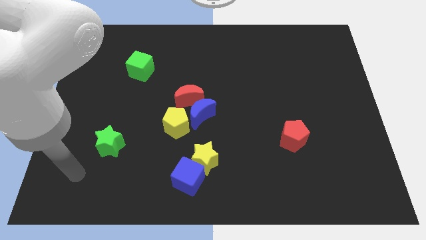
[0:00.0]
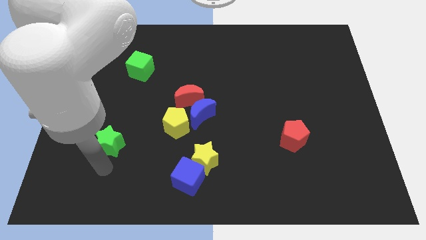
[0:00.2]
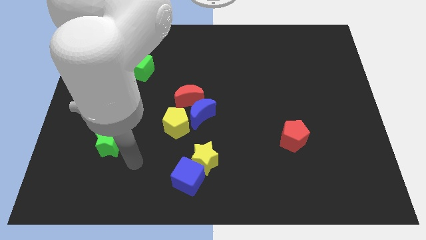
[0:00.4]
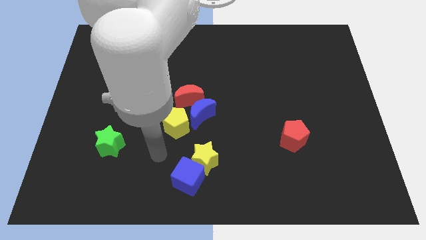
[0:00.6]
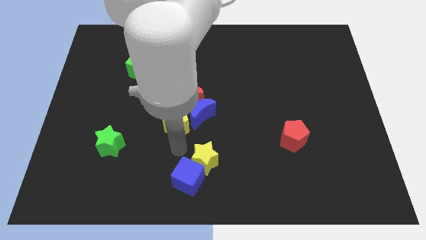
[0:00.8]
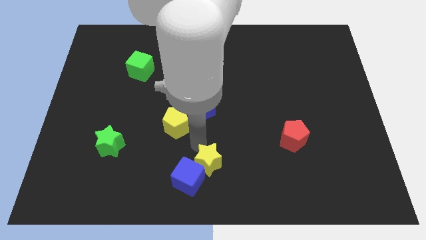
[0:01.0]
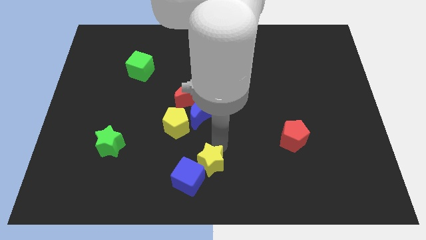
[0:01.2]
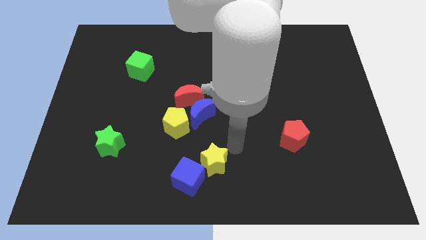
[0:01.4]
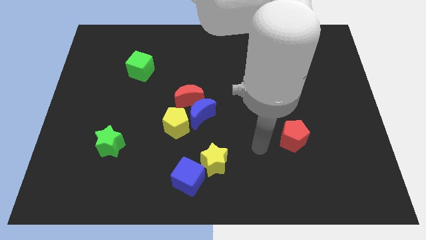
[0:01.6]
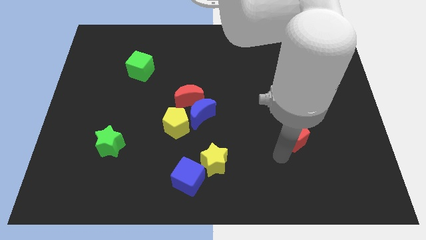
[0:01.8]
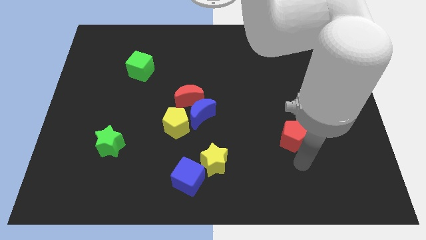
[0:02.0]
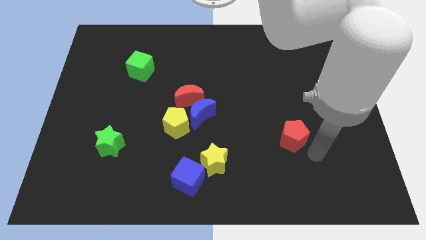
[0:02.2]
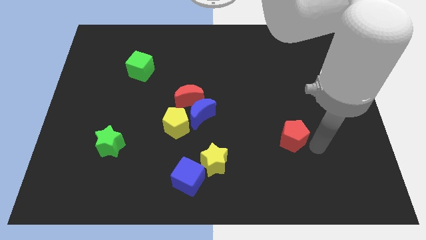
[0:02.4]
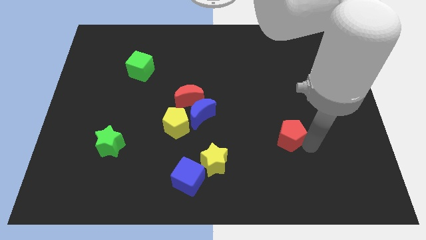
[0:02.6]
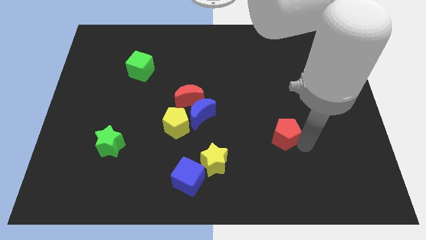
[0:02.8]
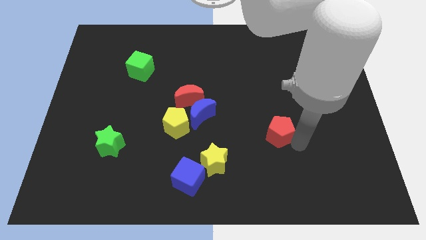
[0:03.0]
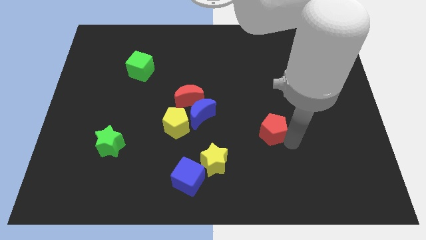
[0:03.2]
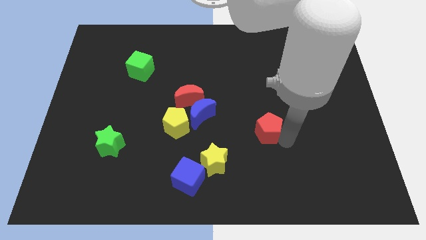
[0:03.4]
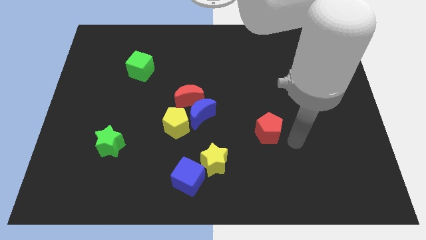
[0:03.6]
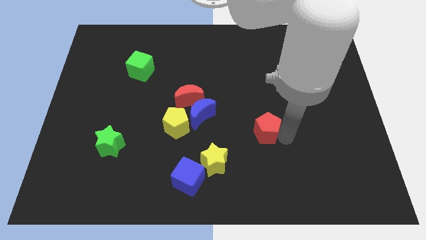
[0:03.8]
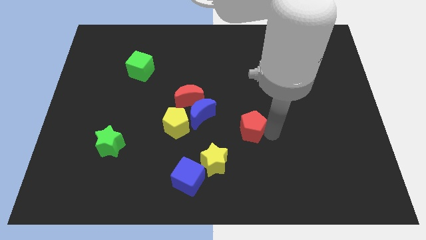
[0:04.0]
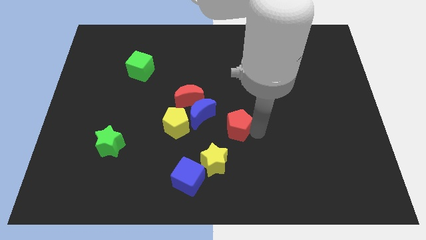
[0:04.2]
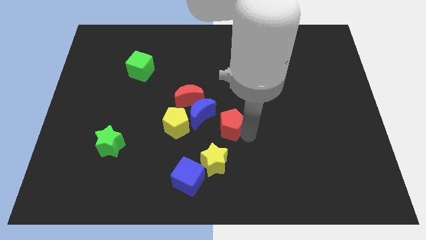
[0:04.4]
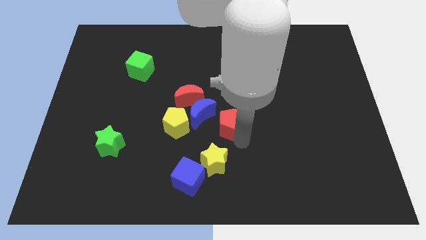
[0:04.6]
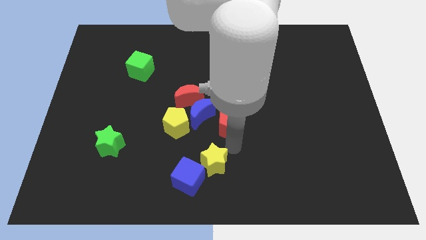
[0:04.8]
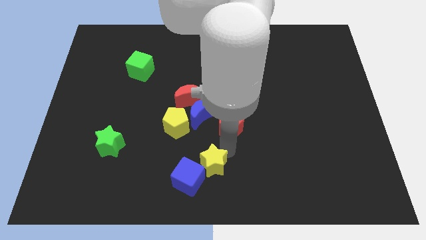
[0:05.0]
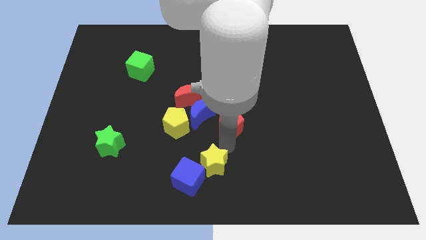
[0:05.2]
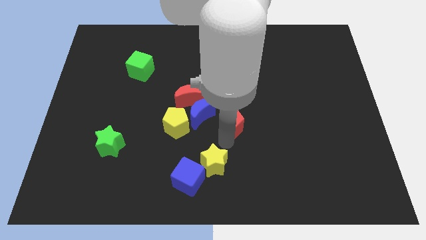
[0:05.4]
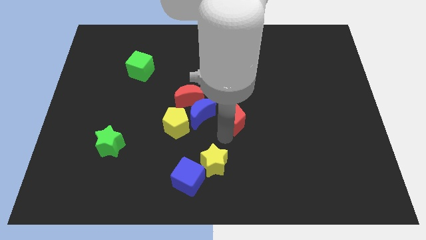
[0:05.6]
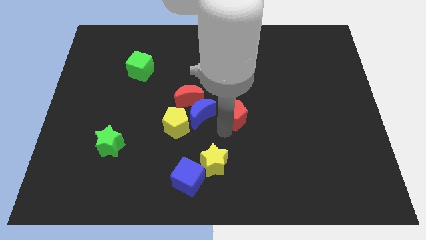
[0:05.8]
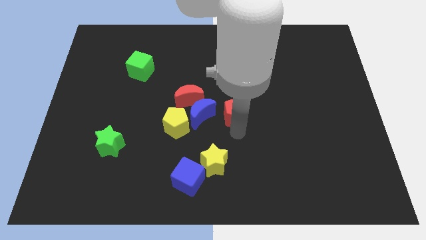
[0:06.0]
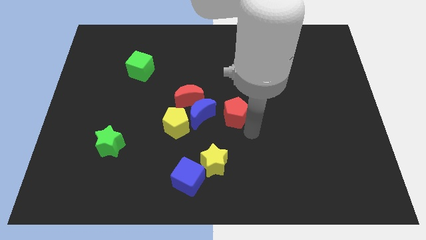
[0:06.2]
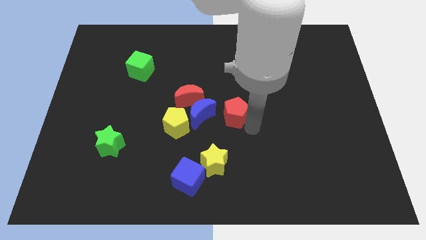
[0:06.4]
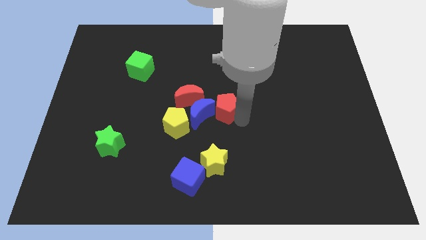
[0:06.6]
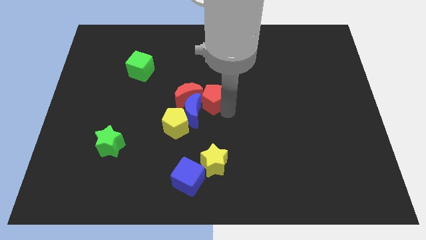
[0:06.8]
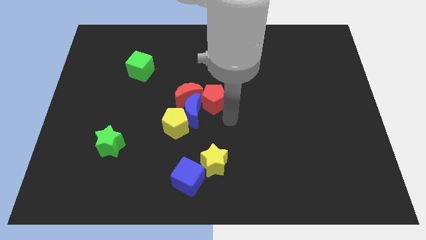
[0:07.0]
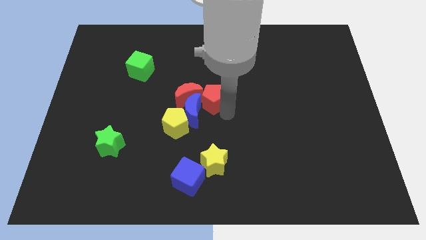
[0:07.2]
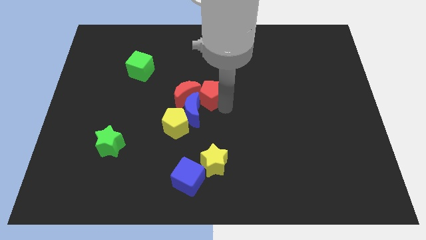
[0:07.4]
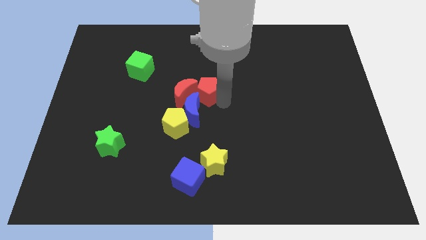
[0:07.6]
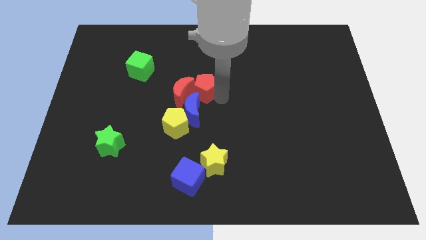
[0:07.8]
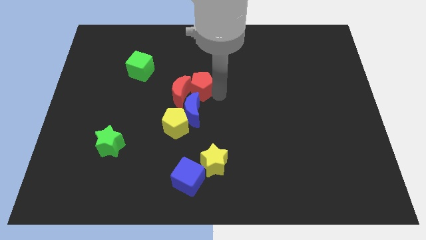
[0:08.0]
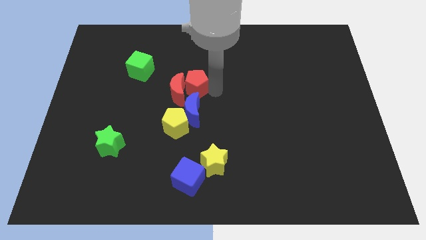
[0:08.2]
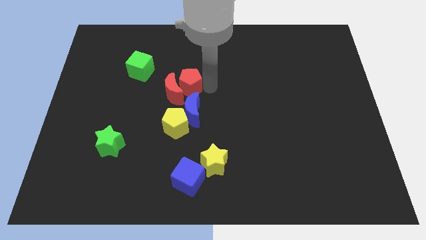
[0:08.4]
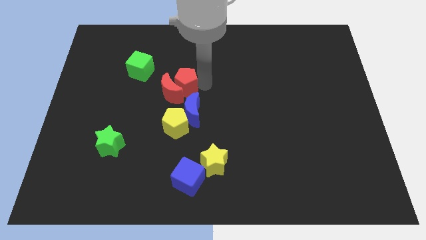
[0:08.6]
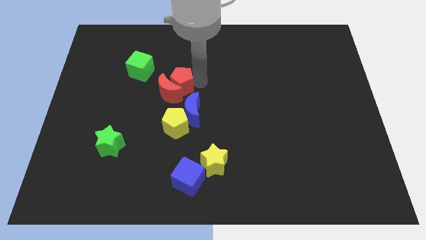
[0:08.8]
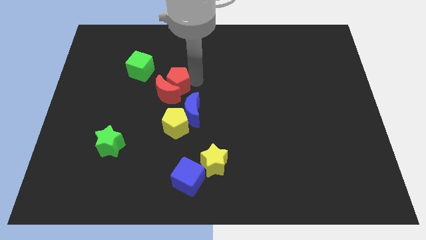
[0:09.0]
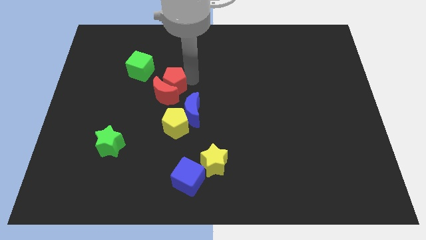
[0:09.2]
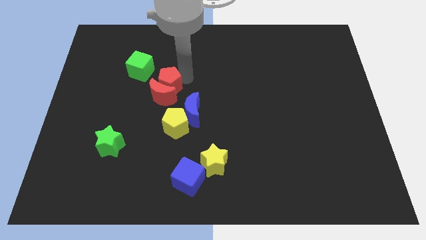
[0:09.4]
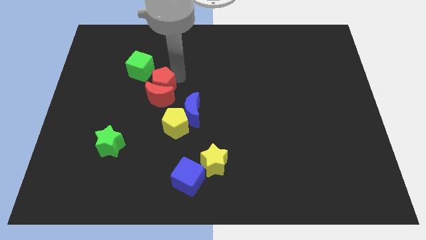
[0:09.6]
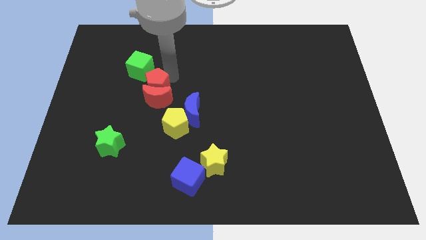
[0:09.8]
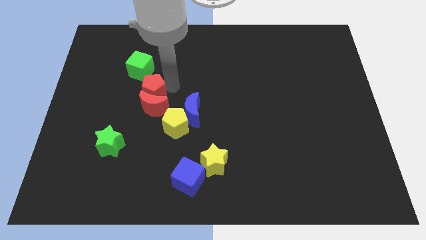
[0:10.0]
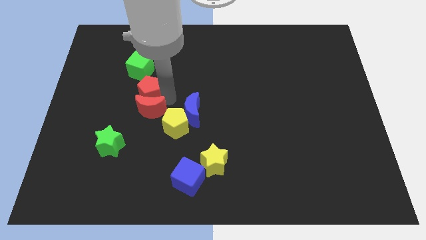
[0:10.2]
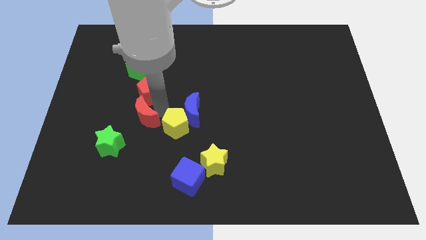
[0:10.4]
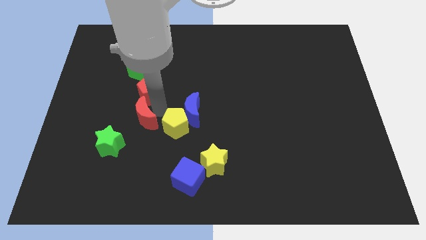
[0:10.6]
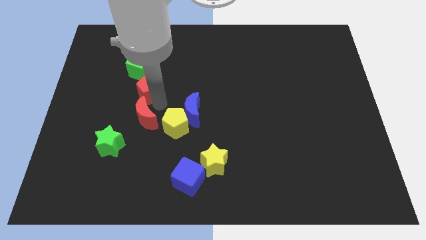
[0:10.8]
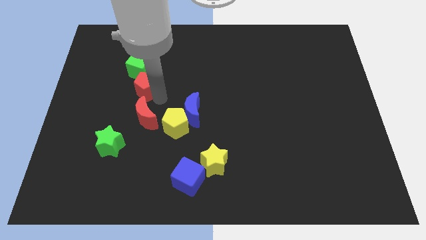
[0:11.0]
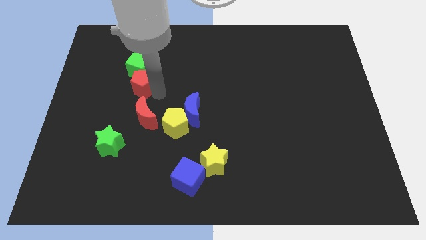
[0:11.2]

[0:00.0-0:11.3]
slide the red pentagon to the green cube

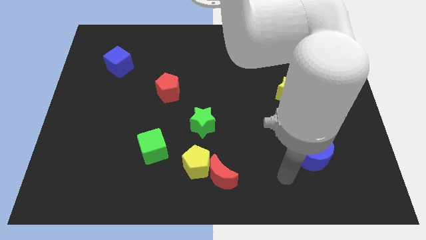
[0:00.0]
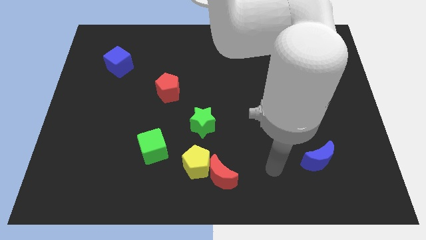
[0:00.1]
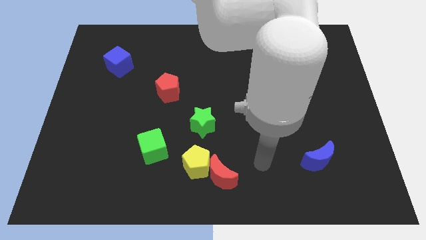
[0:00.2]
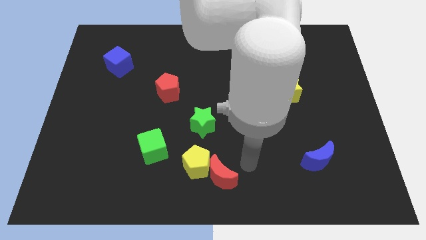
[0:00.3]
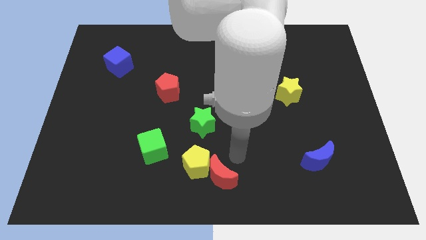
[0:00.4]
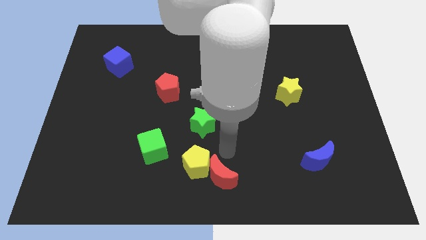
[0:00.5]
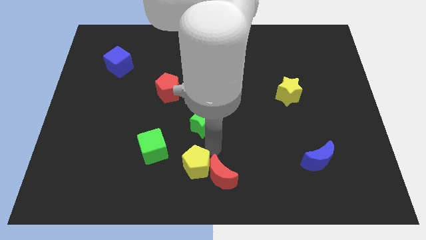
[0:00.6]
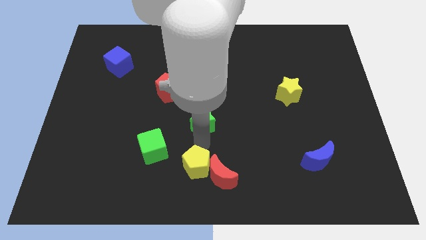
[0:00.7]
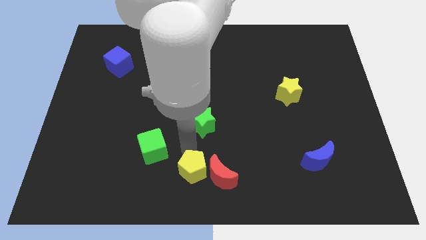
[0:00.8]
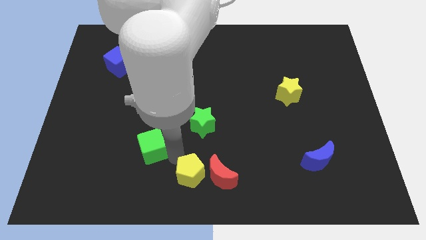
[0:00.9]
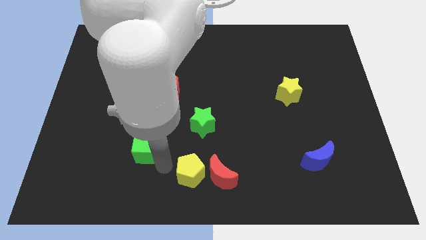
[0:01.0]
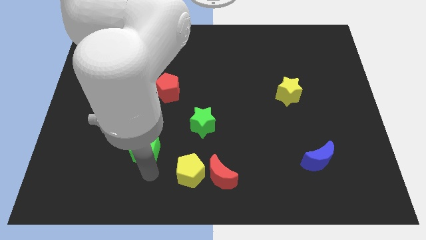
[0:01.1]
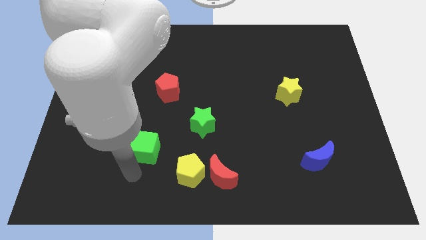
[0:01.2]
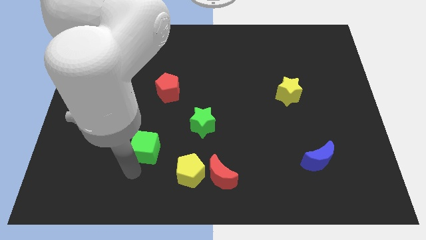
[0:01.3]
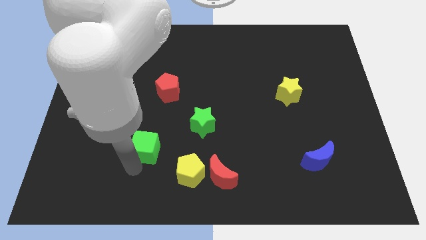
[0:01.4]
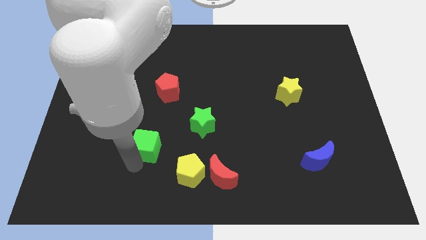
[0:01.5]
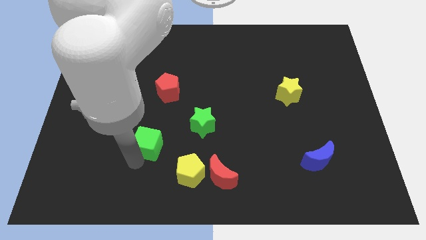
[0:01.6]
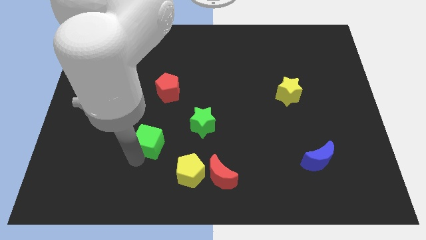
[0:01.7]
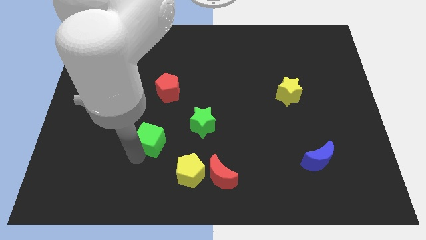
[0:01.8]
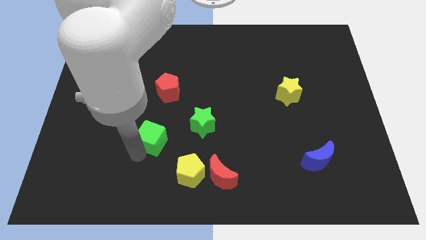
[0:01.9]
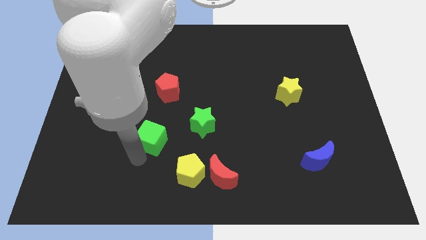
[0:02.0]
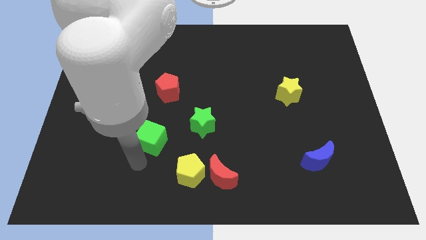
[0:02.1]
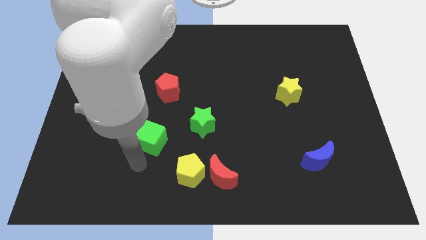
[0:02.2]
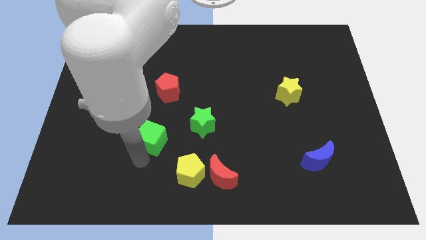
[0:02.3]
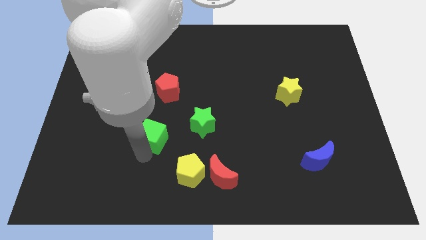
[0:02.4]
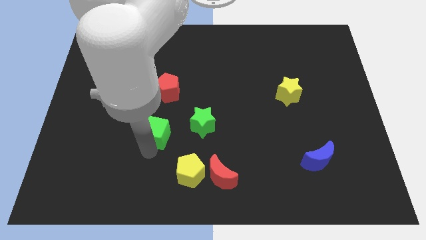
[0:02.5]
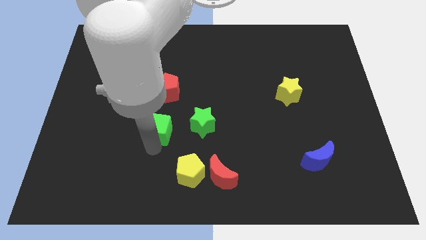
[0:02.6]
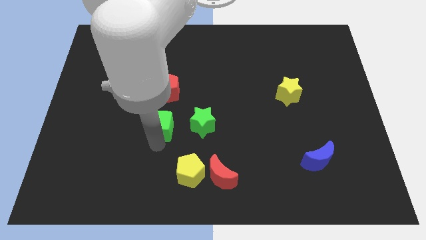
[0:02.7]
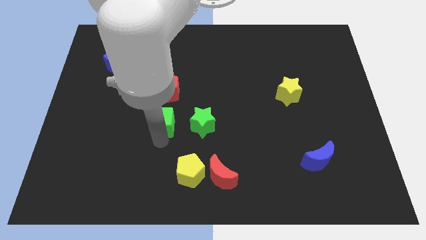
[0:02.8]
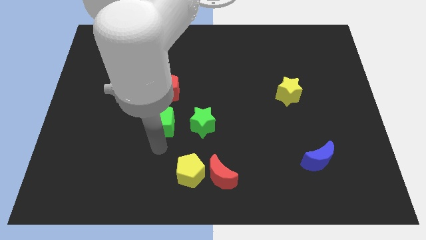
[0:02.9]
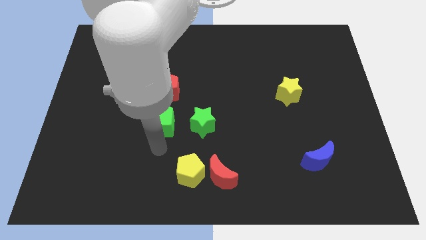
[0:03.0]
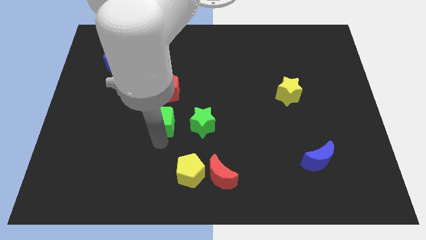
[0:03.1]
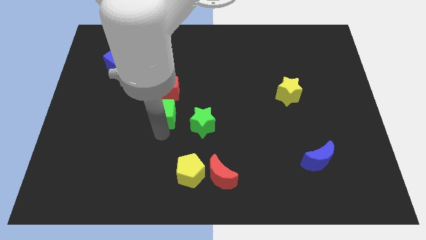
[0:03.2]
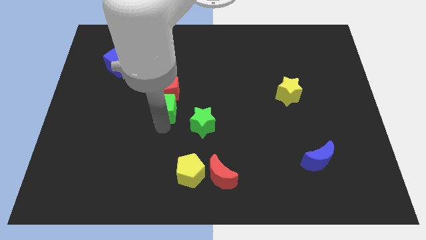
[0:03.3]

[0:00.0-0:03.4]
move the green cube towards the red pentagon
